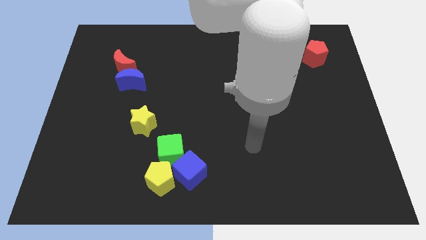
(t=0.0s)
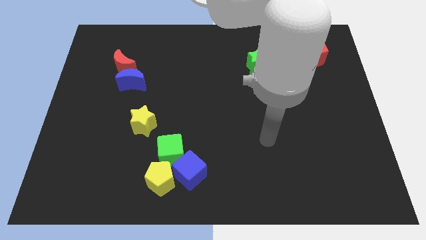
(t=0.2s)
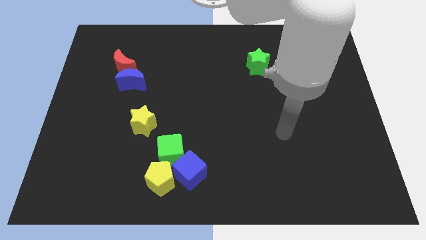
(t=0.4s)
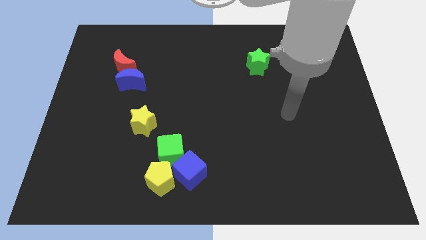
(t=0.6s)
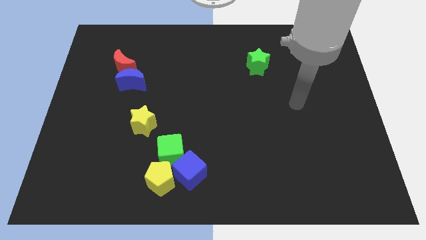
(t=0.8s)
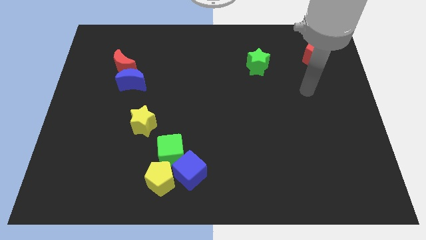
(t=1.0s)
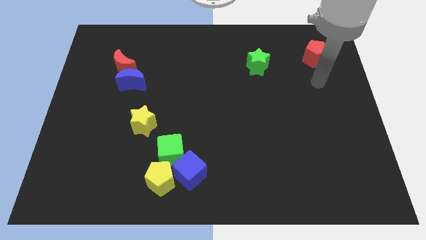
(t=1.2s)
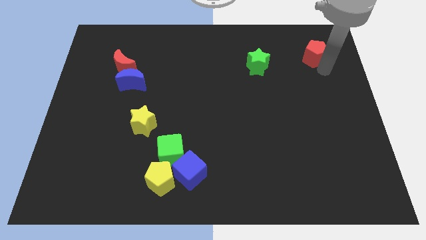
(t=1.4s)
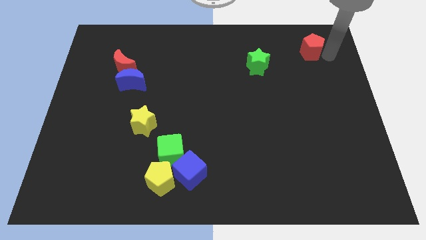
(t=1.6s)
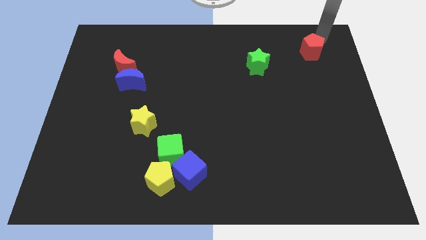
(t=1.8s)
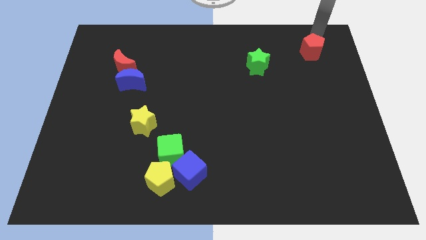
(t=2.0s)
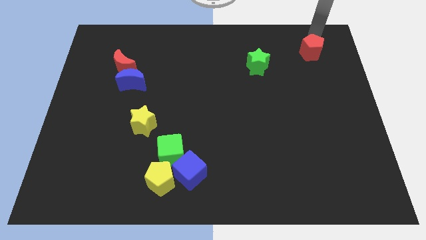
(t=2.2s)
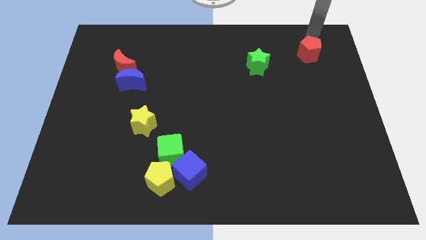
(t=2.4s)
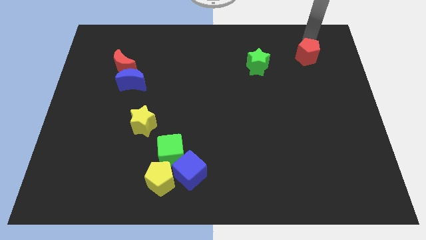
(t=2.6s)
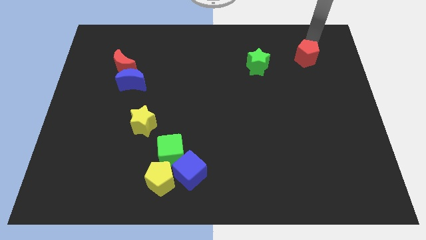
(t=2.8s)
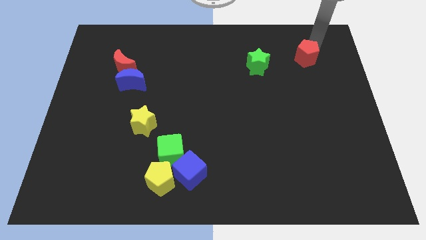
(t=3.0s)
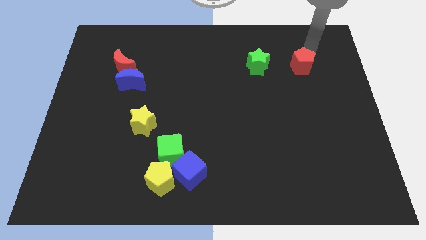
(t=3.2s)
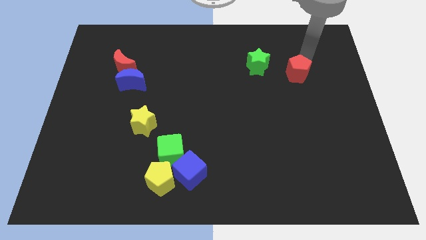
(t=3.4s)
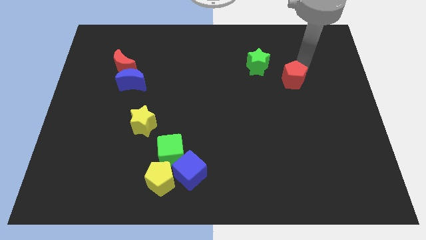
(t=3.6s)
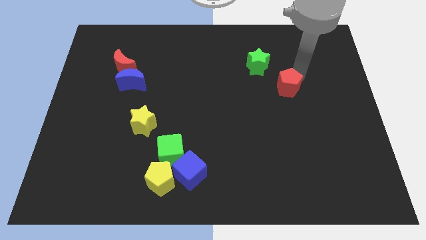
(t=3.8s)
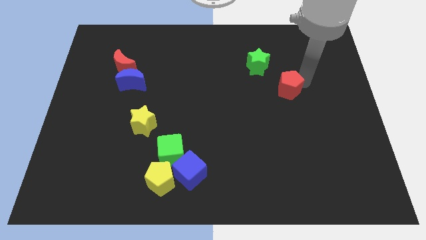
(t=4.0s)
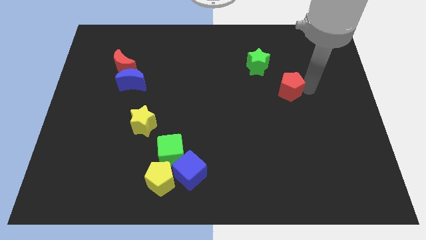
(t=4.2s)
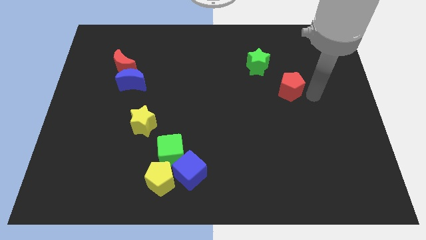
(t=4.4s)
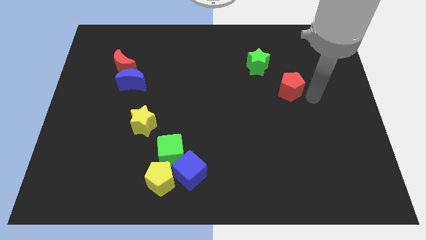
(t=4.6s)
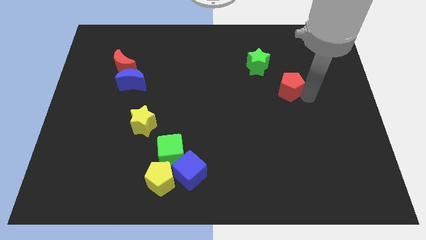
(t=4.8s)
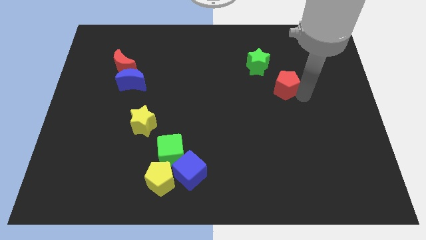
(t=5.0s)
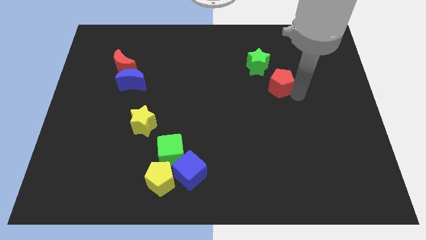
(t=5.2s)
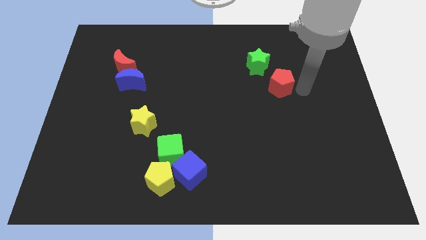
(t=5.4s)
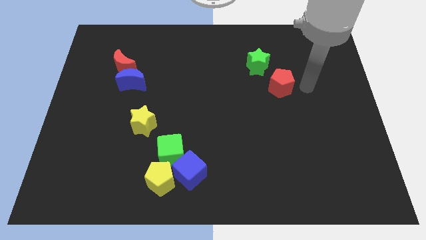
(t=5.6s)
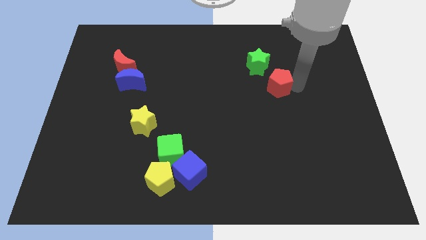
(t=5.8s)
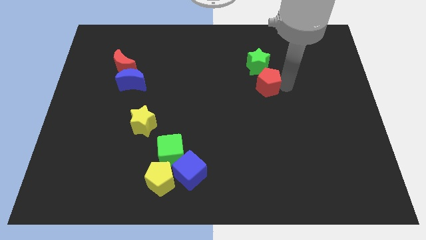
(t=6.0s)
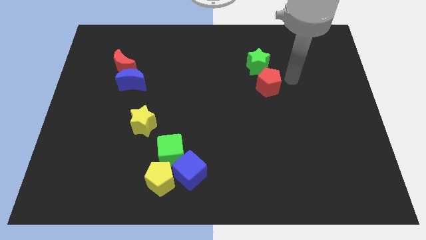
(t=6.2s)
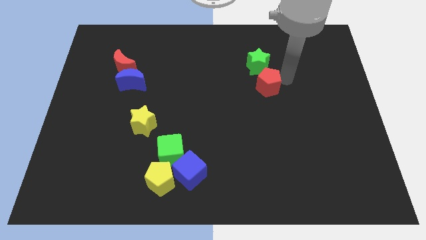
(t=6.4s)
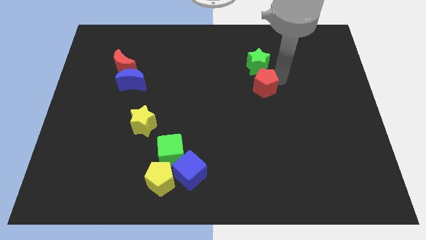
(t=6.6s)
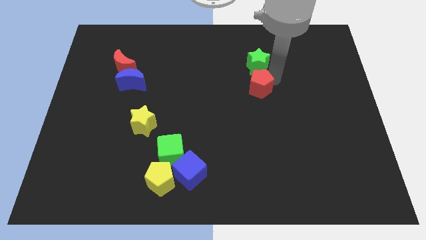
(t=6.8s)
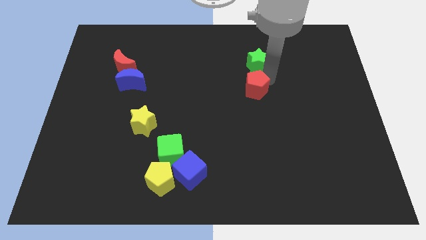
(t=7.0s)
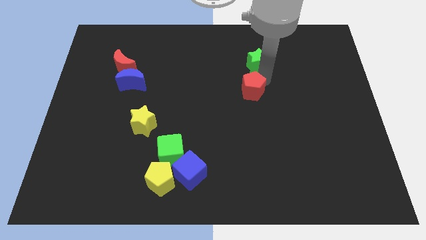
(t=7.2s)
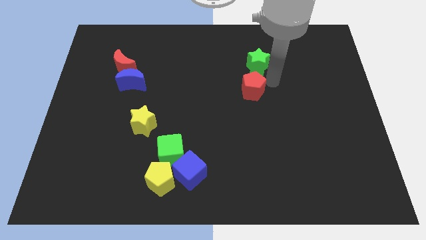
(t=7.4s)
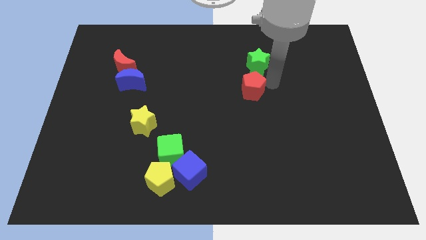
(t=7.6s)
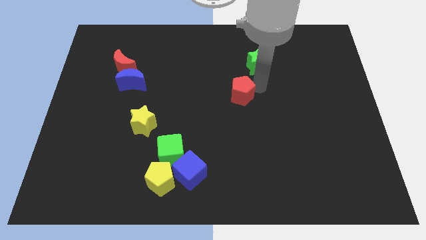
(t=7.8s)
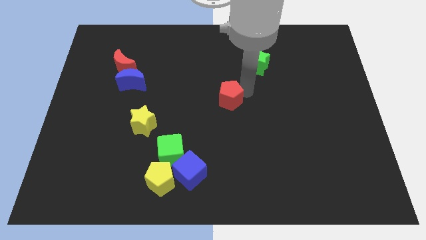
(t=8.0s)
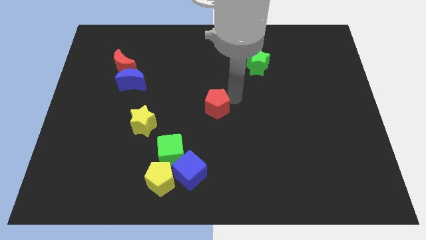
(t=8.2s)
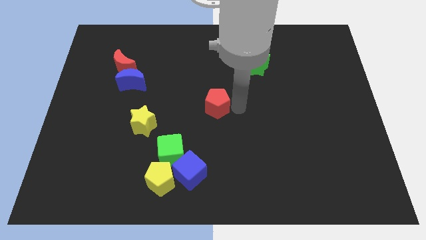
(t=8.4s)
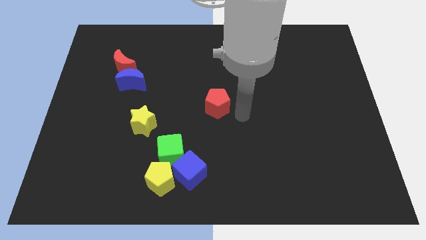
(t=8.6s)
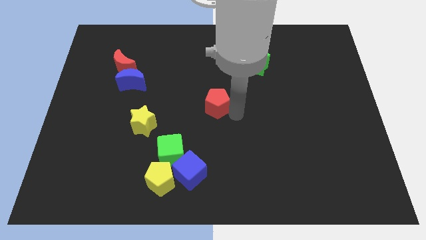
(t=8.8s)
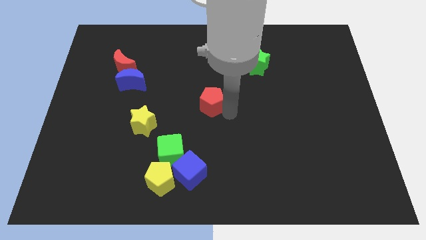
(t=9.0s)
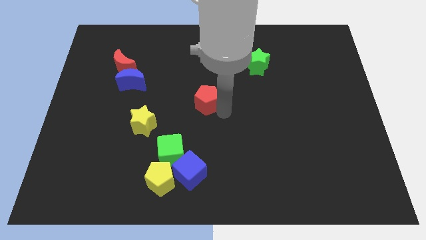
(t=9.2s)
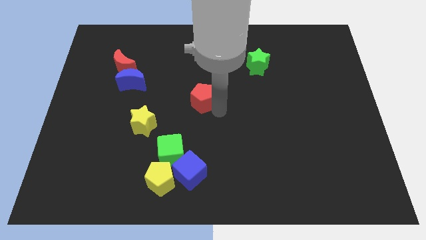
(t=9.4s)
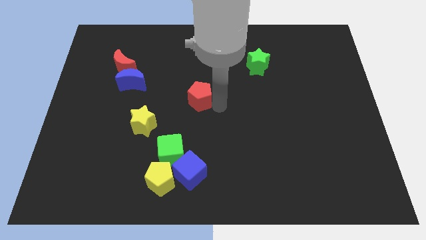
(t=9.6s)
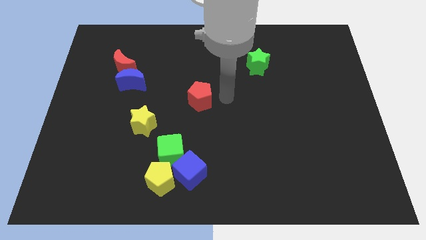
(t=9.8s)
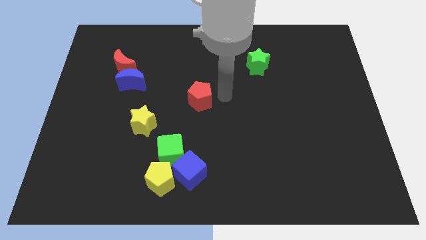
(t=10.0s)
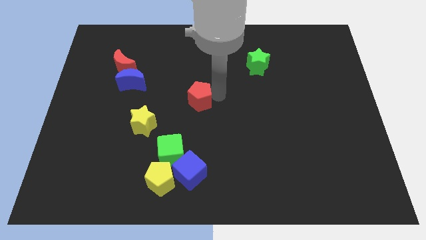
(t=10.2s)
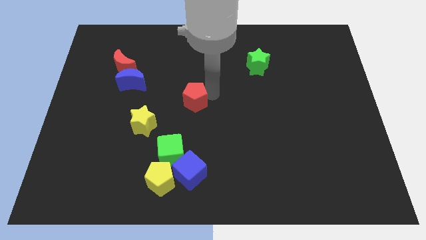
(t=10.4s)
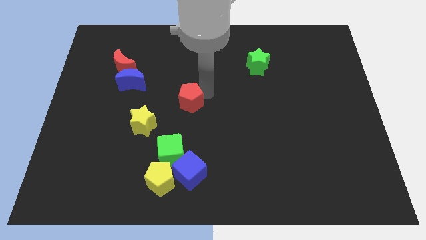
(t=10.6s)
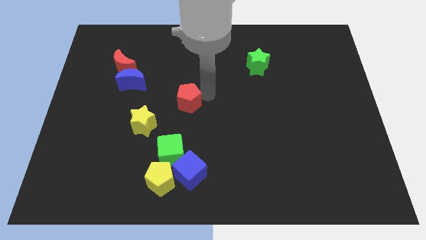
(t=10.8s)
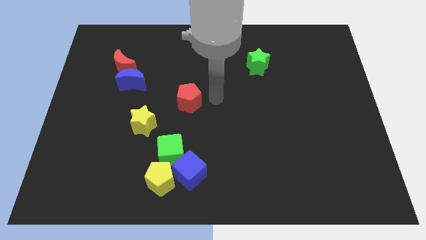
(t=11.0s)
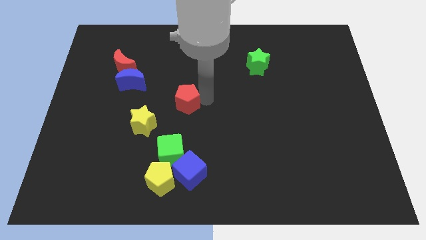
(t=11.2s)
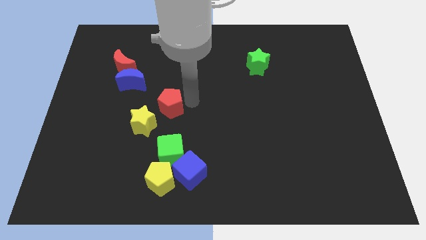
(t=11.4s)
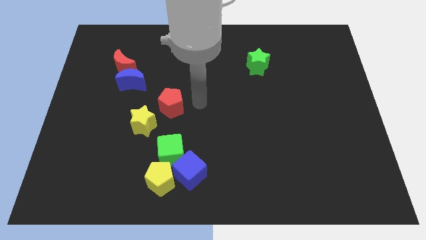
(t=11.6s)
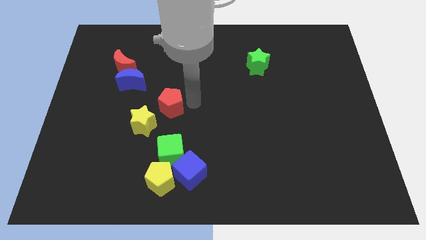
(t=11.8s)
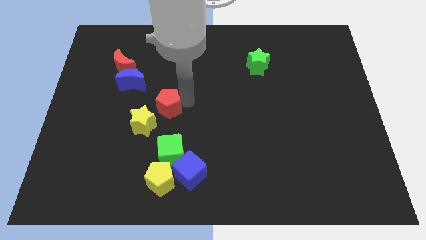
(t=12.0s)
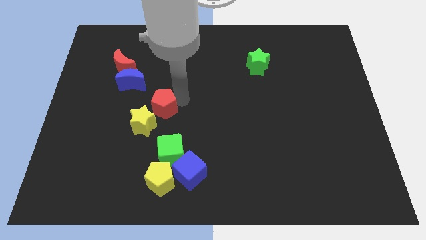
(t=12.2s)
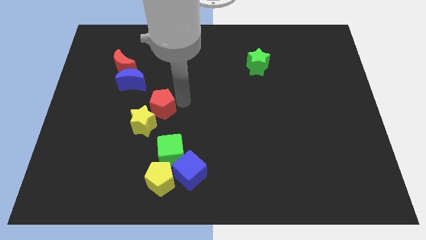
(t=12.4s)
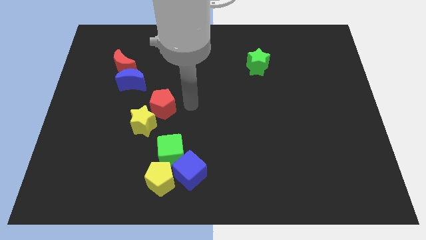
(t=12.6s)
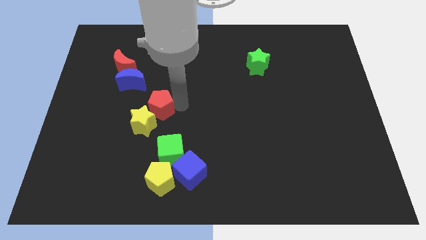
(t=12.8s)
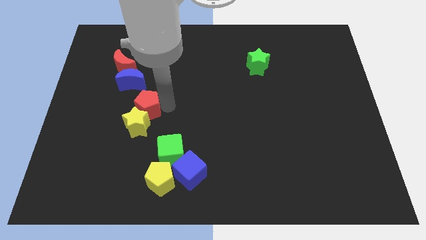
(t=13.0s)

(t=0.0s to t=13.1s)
put the red pentagon below the blue moon
